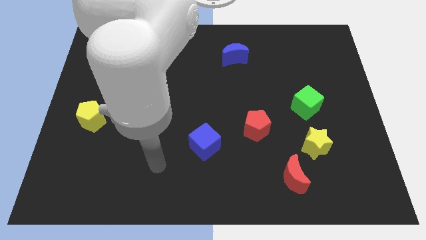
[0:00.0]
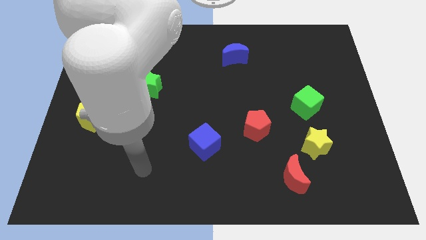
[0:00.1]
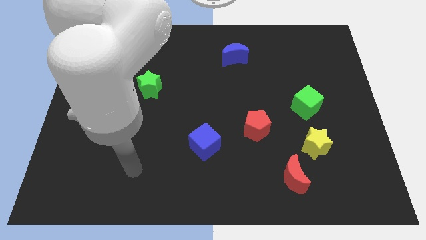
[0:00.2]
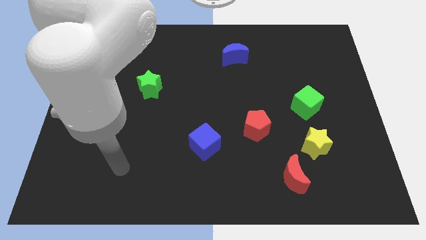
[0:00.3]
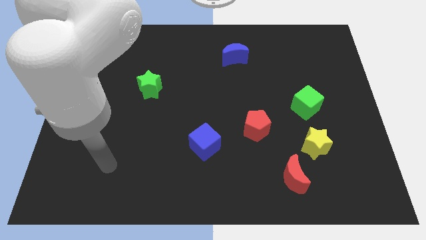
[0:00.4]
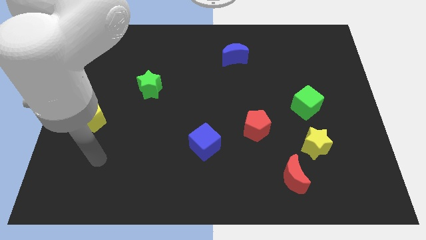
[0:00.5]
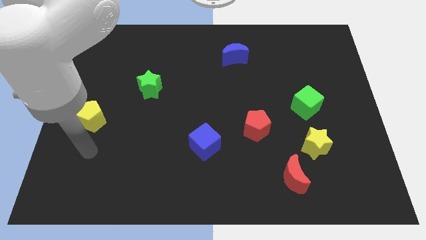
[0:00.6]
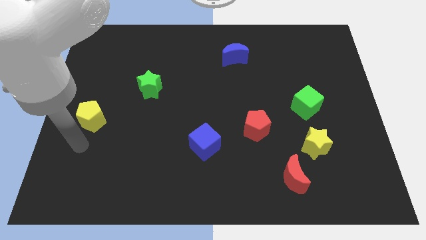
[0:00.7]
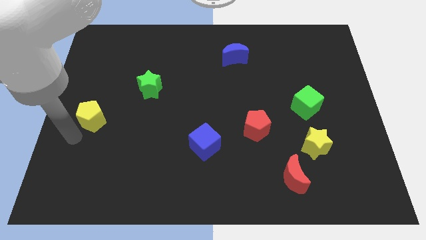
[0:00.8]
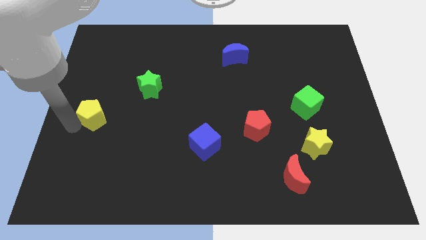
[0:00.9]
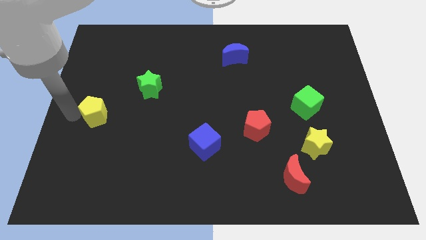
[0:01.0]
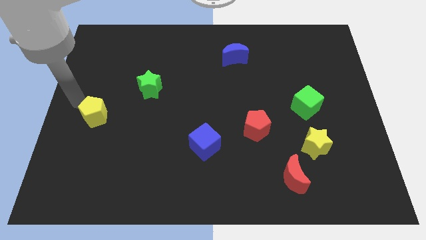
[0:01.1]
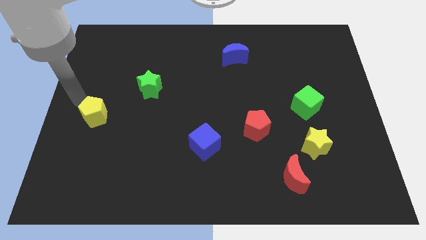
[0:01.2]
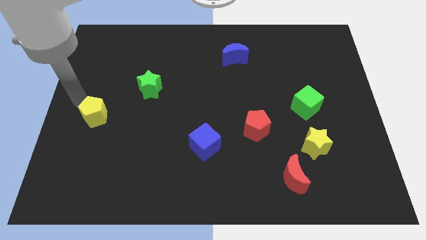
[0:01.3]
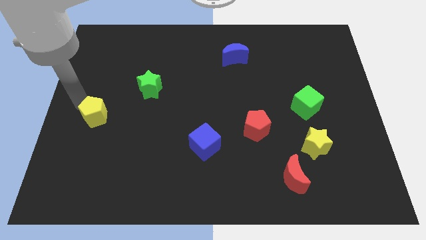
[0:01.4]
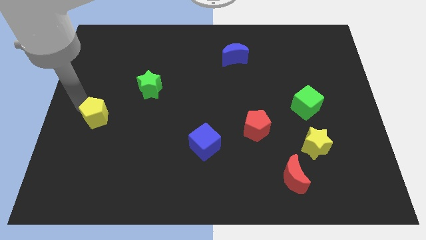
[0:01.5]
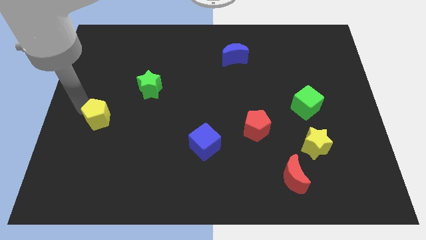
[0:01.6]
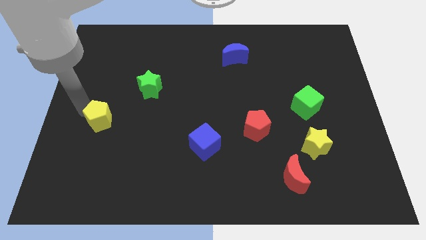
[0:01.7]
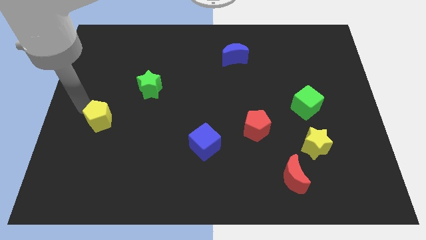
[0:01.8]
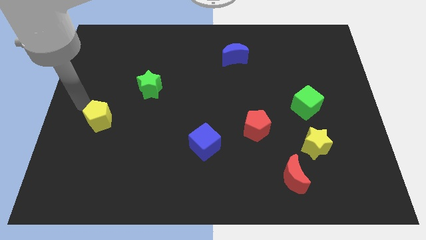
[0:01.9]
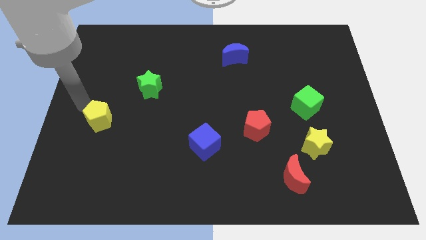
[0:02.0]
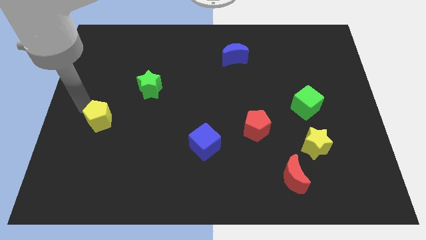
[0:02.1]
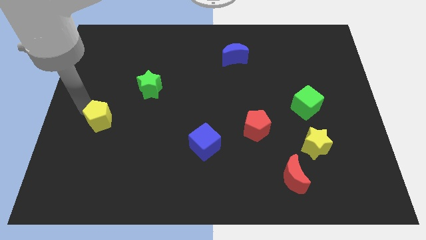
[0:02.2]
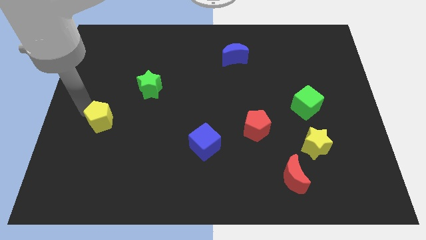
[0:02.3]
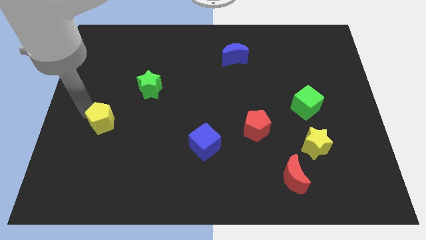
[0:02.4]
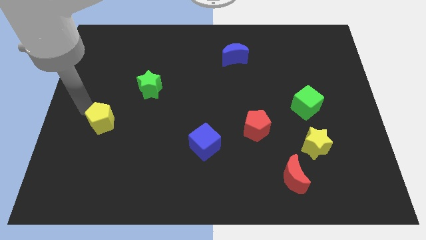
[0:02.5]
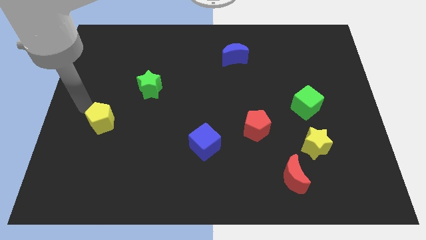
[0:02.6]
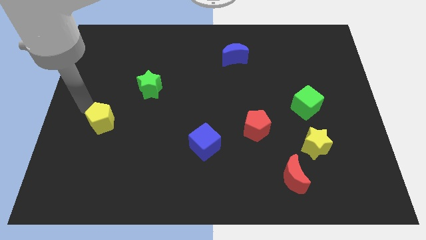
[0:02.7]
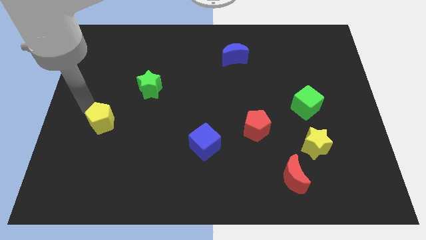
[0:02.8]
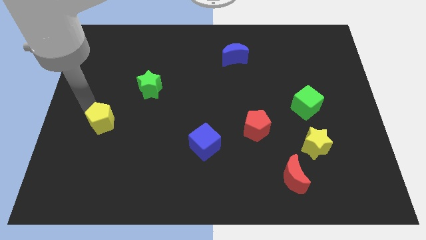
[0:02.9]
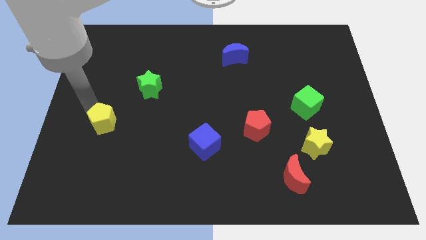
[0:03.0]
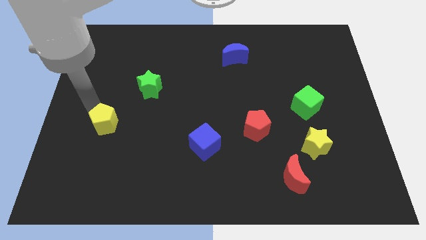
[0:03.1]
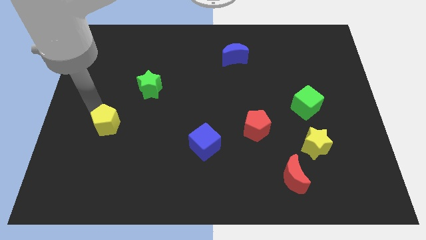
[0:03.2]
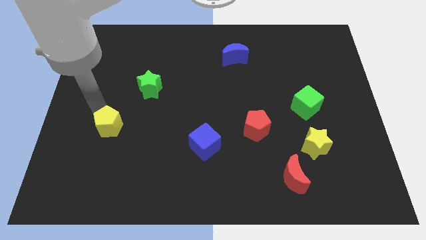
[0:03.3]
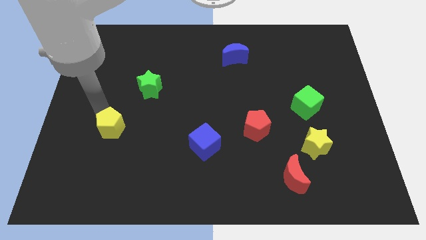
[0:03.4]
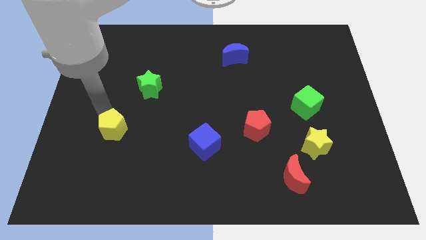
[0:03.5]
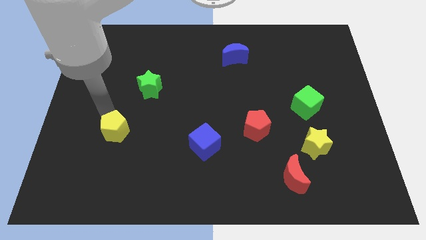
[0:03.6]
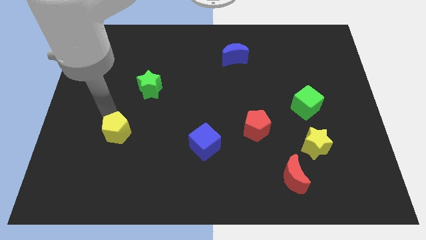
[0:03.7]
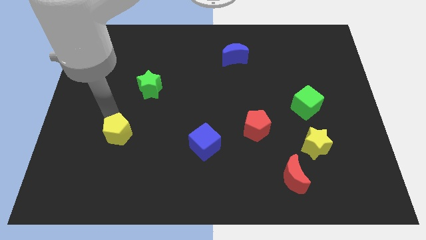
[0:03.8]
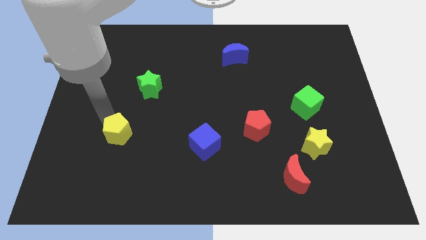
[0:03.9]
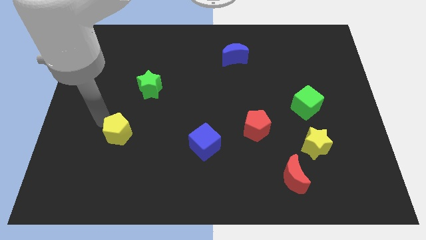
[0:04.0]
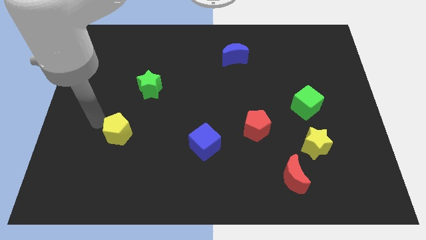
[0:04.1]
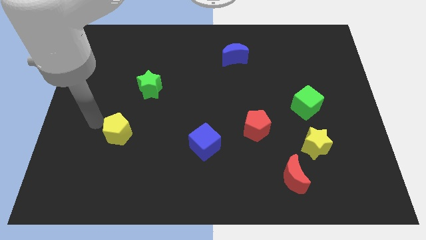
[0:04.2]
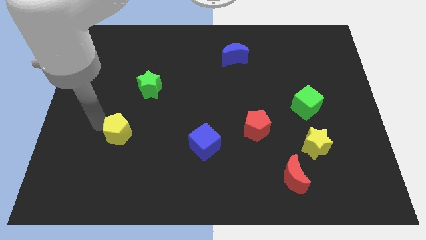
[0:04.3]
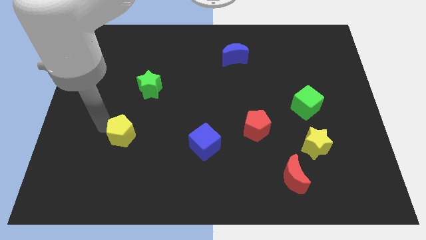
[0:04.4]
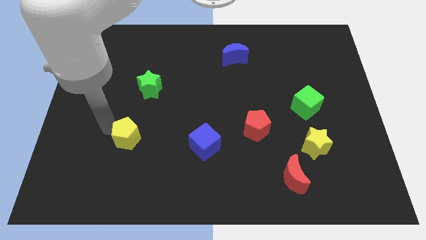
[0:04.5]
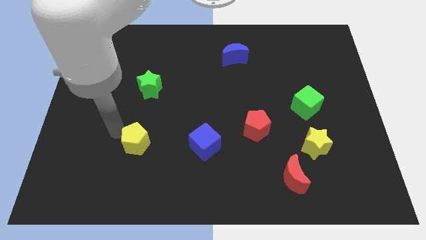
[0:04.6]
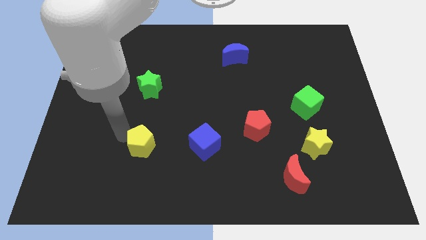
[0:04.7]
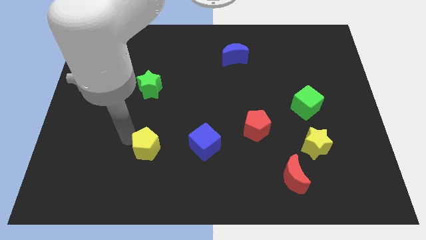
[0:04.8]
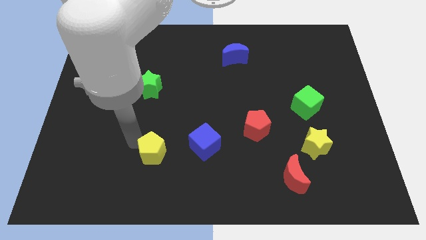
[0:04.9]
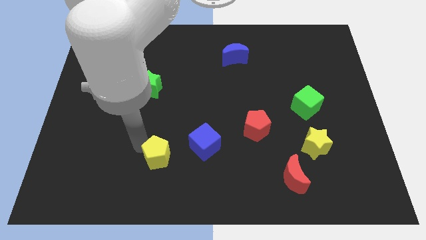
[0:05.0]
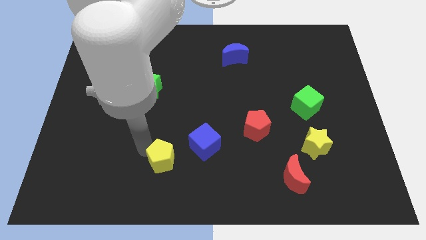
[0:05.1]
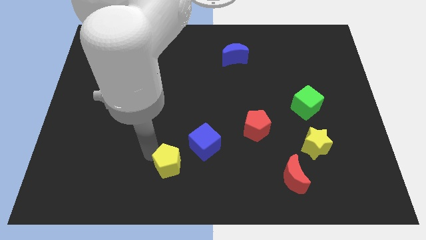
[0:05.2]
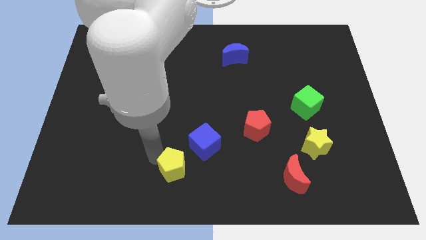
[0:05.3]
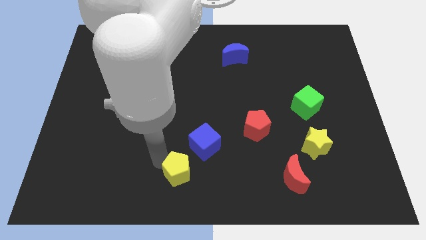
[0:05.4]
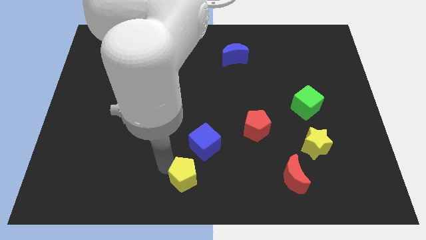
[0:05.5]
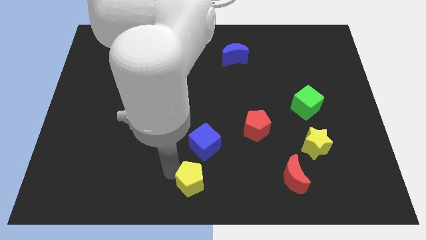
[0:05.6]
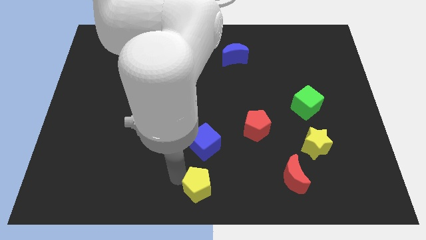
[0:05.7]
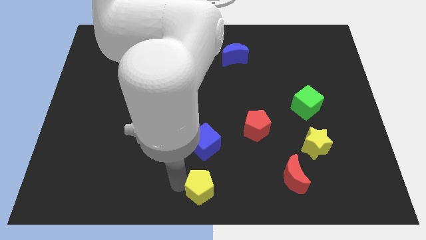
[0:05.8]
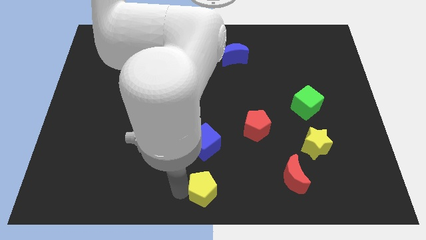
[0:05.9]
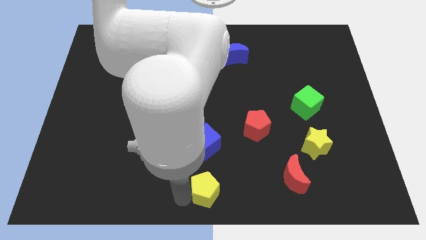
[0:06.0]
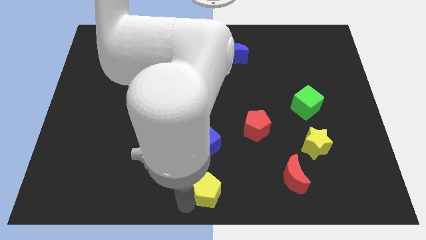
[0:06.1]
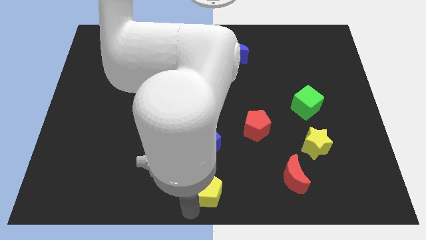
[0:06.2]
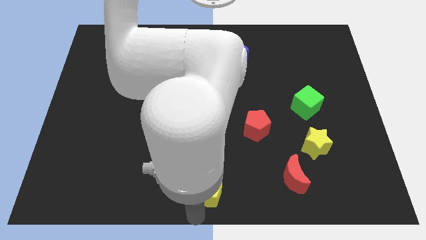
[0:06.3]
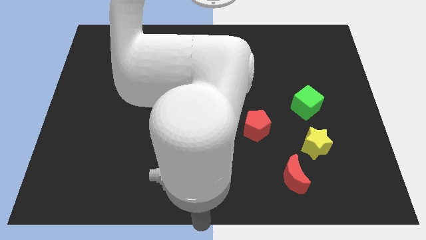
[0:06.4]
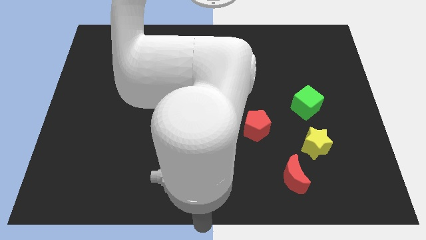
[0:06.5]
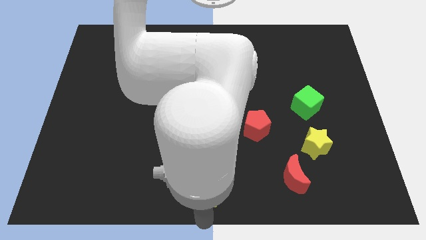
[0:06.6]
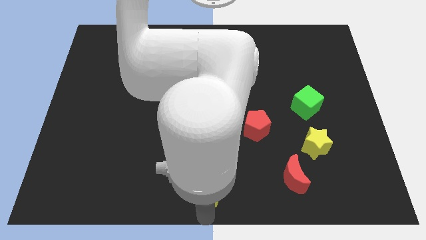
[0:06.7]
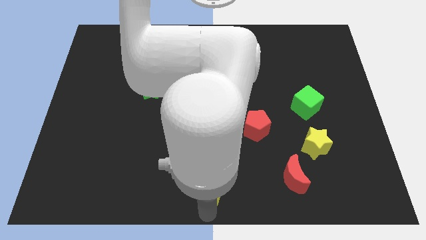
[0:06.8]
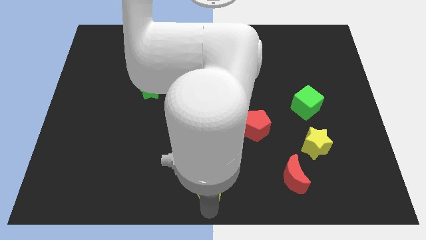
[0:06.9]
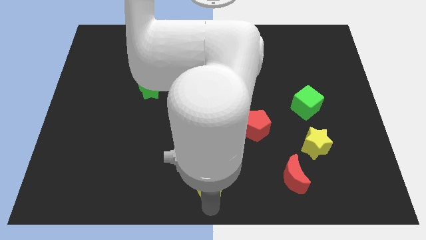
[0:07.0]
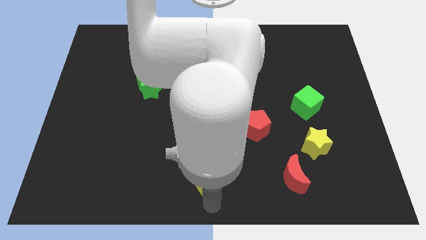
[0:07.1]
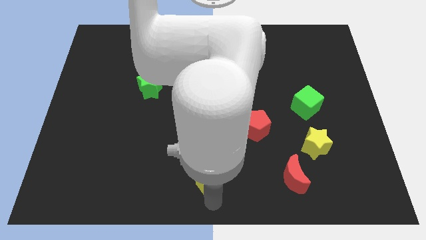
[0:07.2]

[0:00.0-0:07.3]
move the yellow pentagon to the bottom right of the blue cube

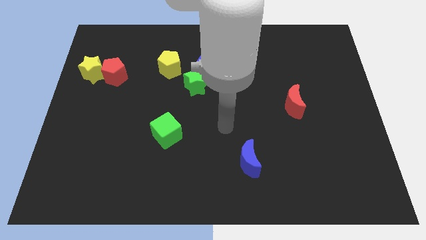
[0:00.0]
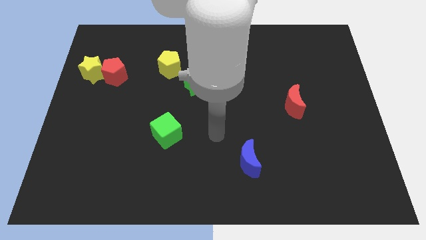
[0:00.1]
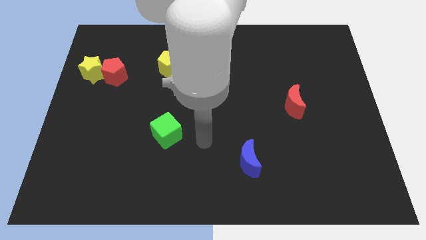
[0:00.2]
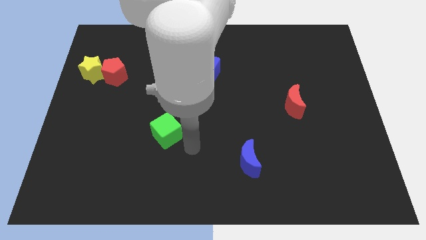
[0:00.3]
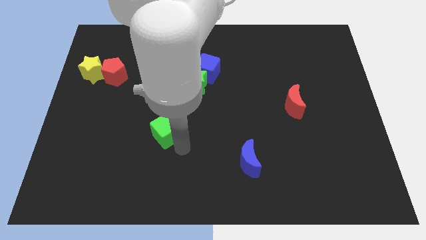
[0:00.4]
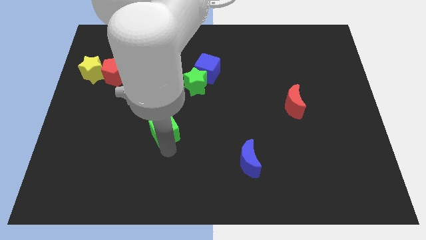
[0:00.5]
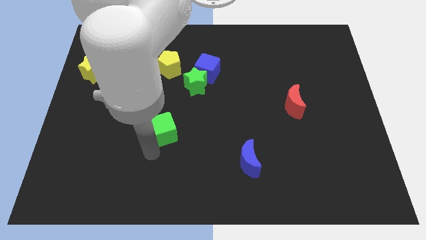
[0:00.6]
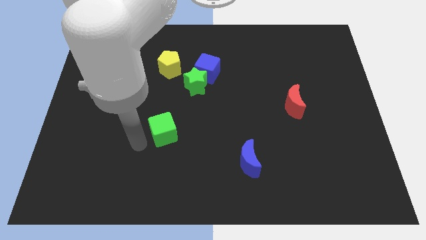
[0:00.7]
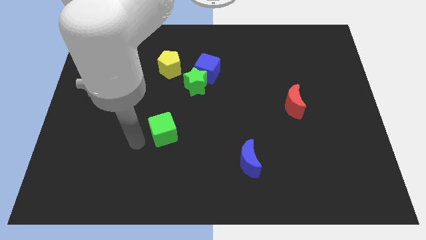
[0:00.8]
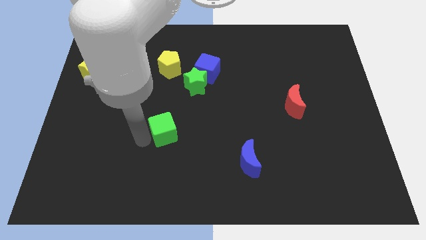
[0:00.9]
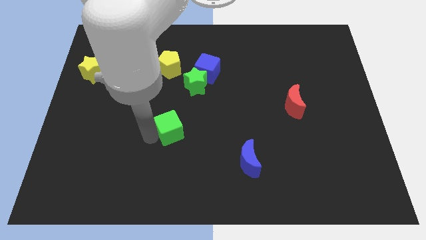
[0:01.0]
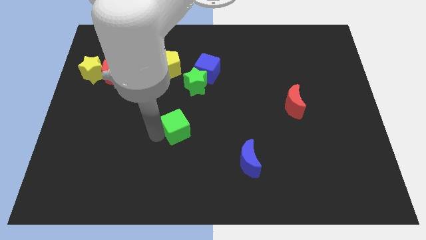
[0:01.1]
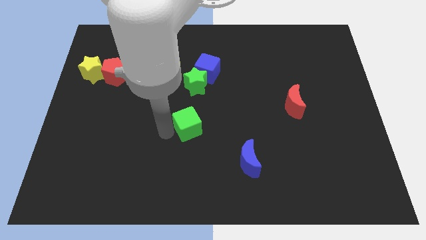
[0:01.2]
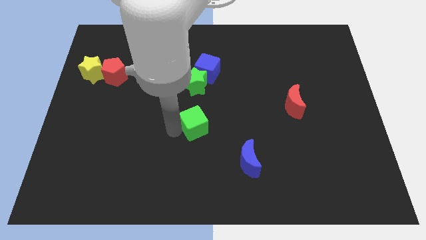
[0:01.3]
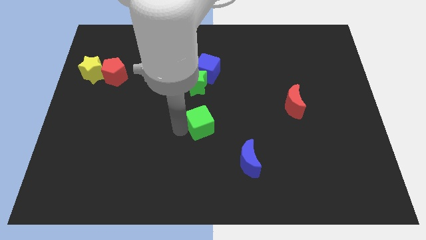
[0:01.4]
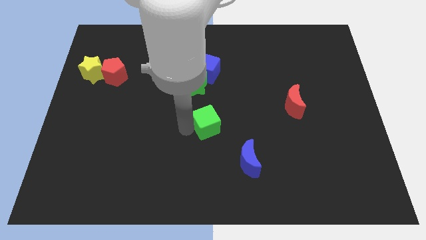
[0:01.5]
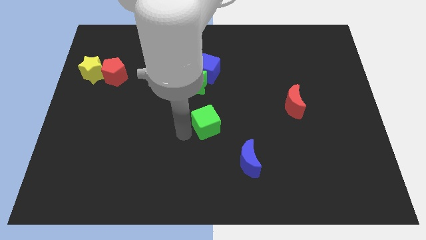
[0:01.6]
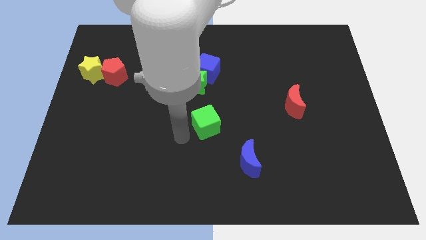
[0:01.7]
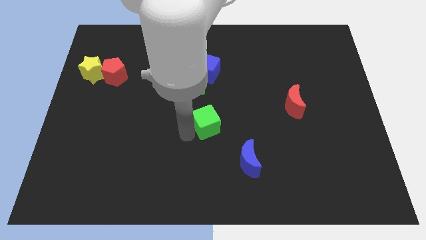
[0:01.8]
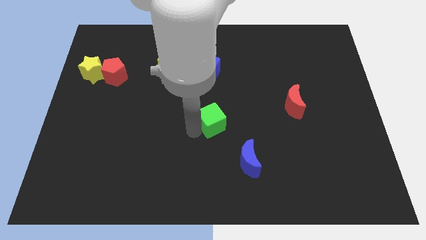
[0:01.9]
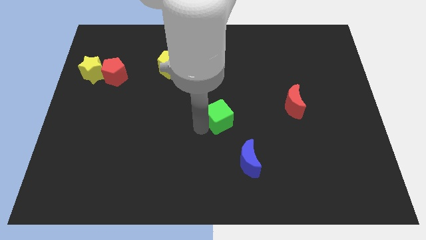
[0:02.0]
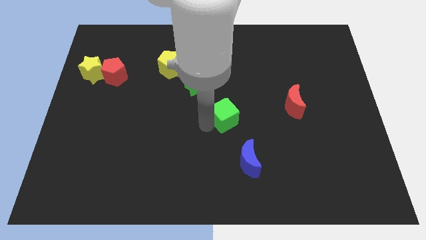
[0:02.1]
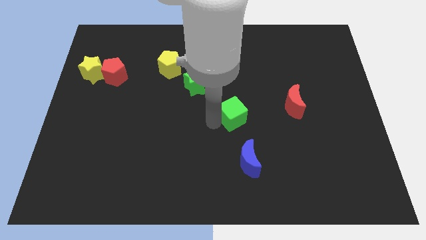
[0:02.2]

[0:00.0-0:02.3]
put the green cube left of the red moon
